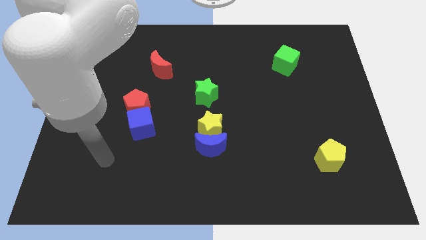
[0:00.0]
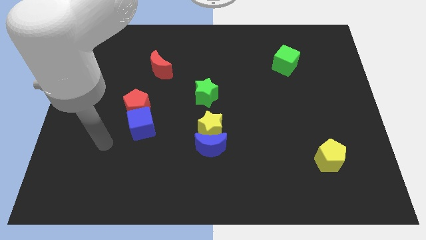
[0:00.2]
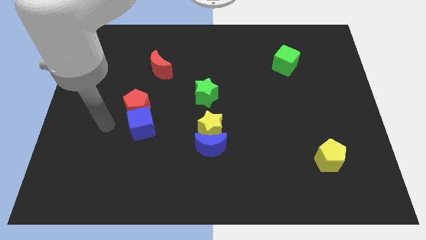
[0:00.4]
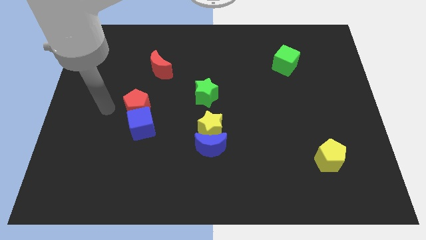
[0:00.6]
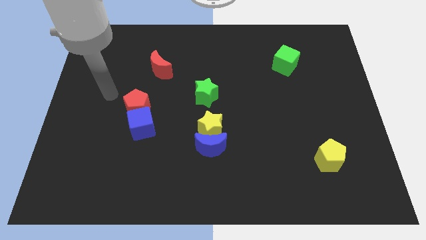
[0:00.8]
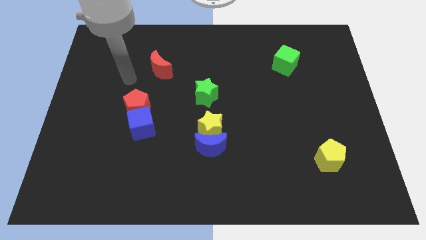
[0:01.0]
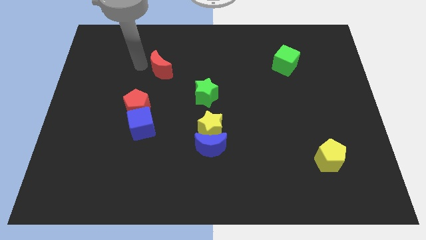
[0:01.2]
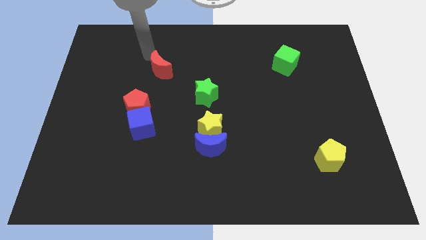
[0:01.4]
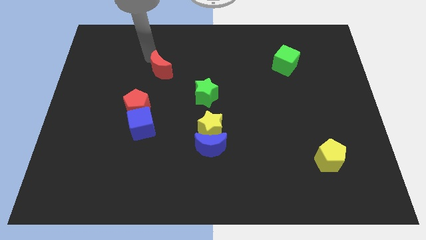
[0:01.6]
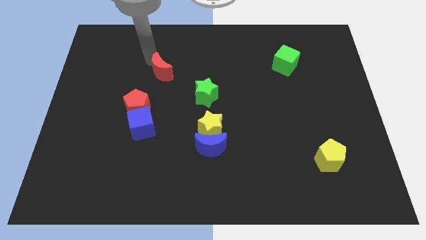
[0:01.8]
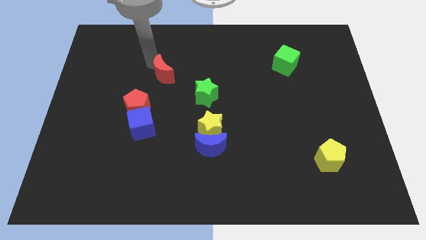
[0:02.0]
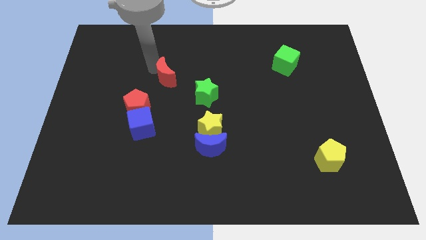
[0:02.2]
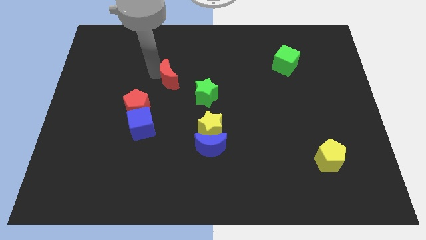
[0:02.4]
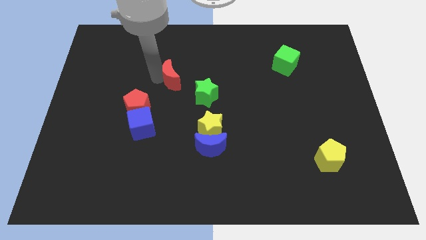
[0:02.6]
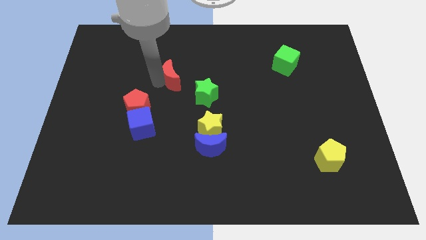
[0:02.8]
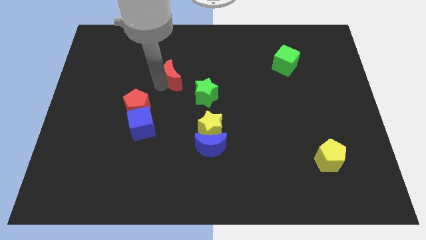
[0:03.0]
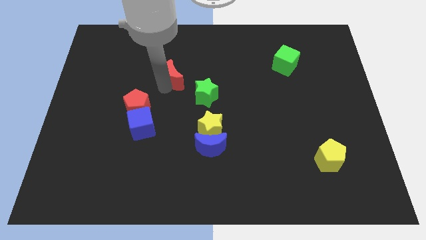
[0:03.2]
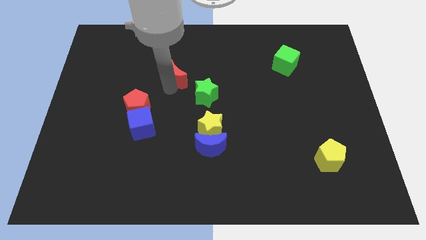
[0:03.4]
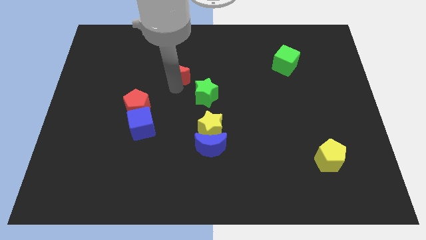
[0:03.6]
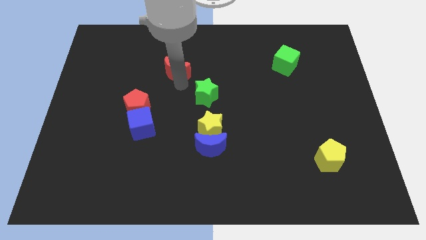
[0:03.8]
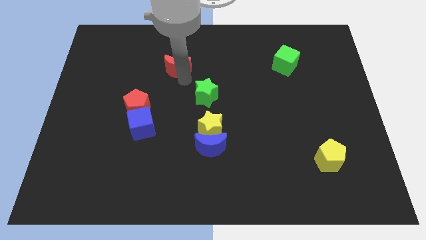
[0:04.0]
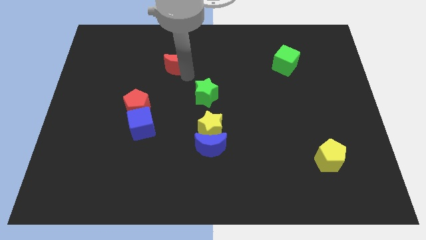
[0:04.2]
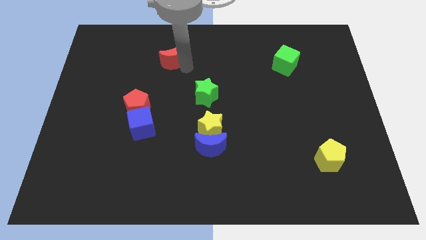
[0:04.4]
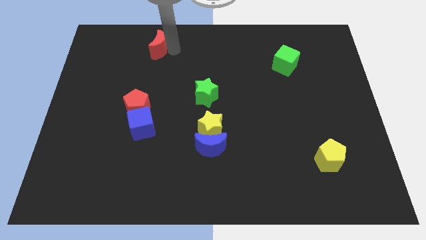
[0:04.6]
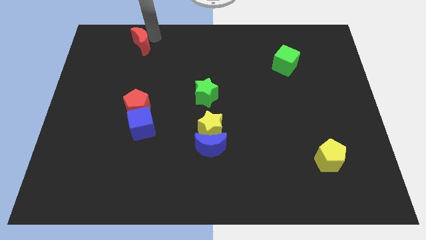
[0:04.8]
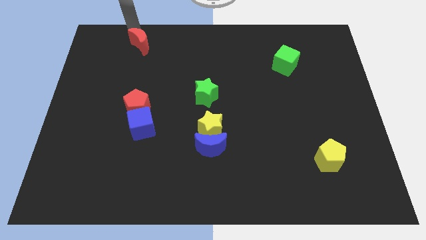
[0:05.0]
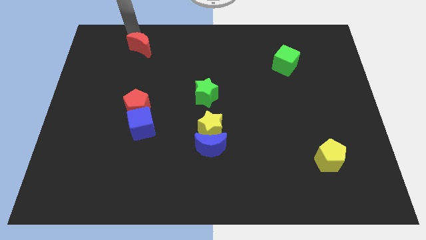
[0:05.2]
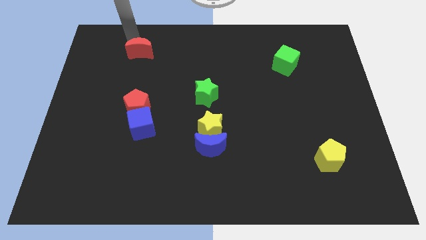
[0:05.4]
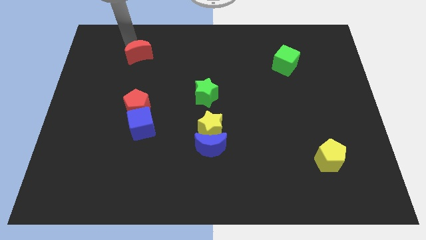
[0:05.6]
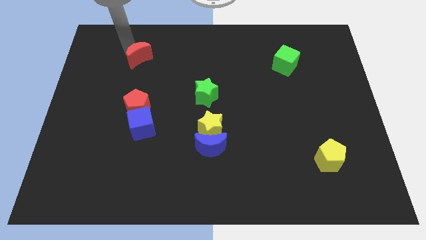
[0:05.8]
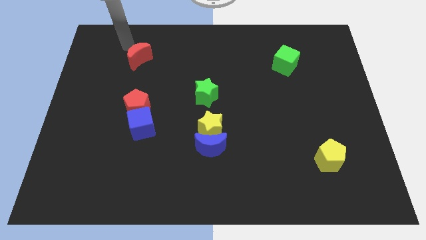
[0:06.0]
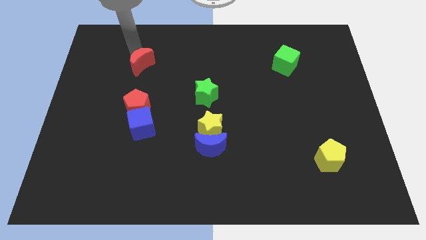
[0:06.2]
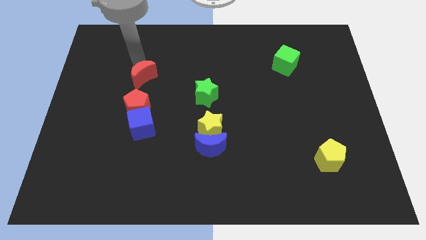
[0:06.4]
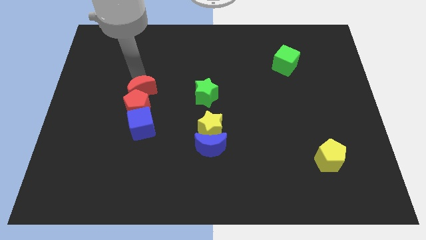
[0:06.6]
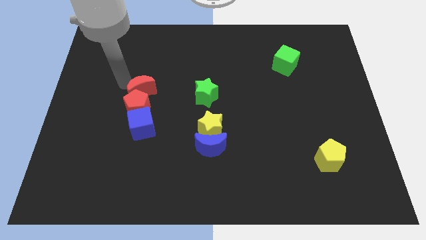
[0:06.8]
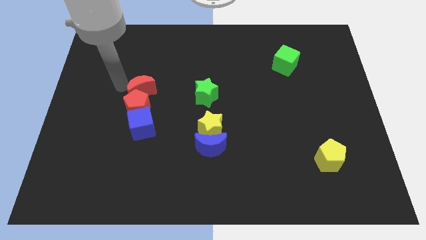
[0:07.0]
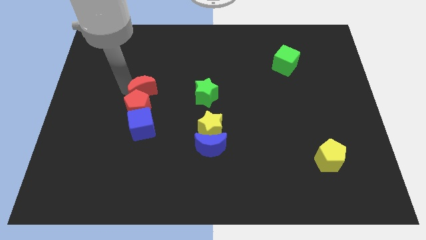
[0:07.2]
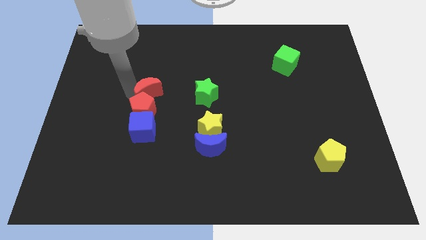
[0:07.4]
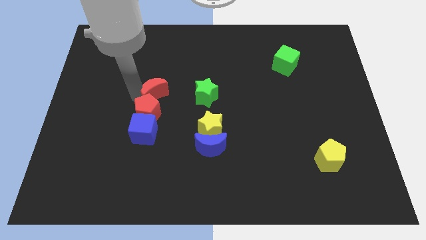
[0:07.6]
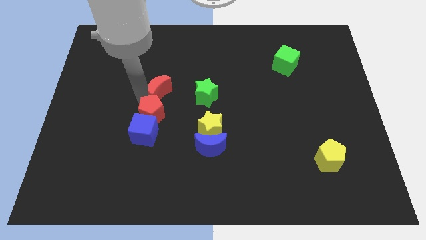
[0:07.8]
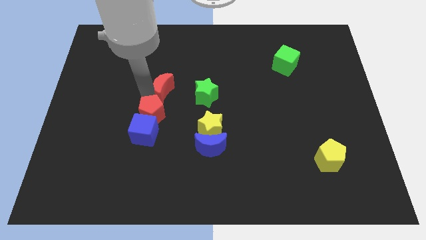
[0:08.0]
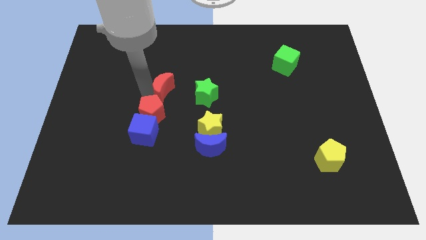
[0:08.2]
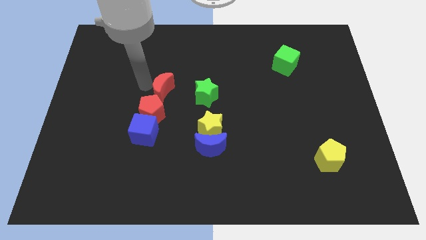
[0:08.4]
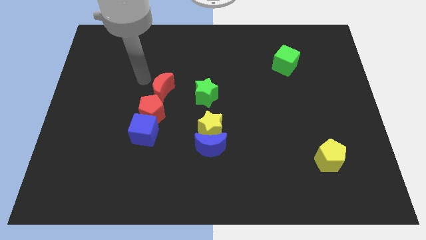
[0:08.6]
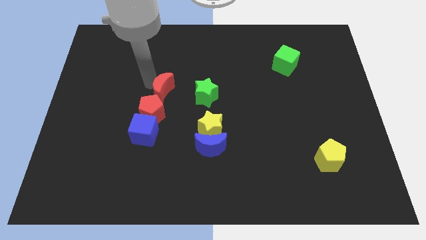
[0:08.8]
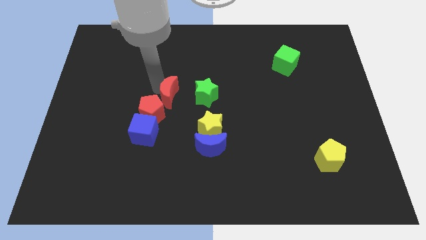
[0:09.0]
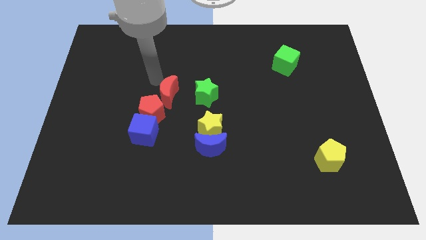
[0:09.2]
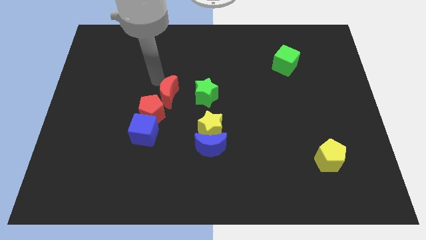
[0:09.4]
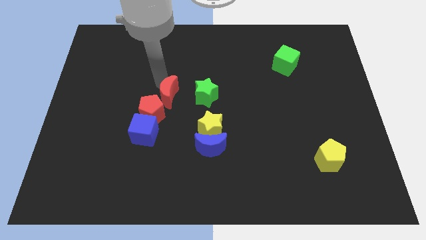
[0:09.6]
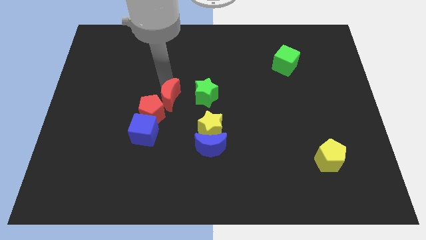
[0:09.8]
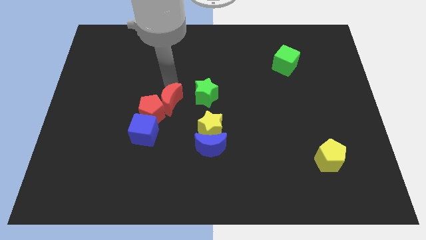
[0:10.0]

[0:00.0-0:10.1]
slide the red moon diagonally down and to the left of the green star

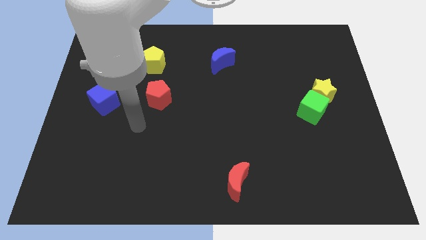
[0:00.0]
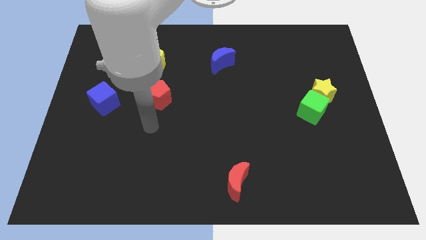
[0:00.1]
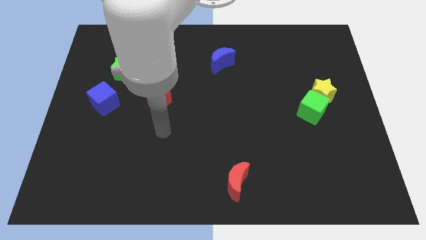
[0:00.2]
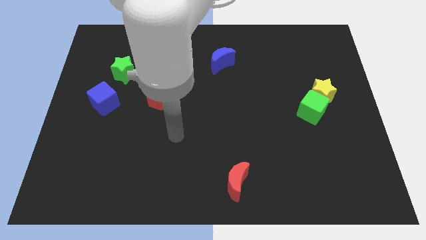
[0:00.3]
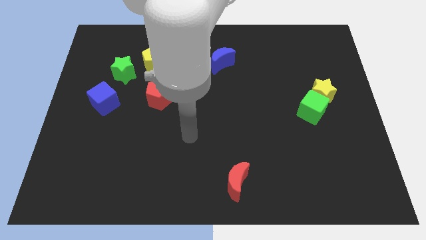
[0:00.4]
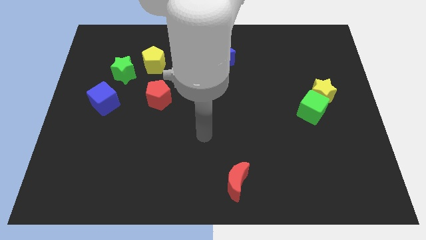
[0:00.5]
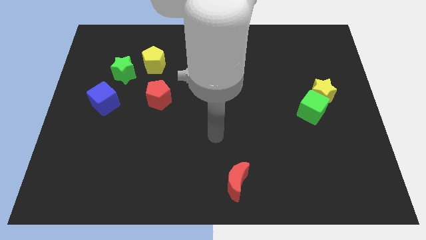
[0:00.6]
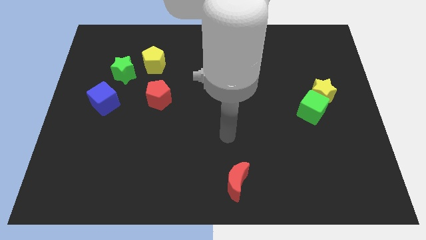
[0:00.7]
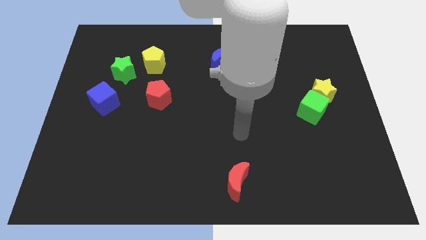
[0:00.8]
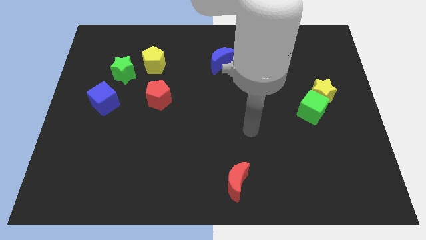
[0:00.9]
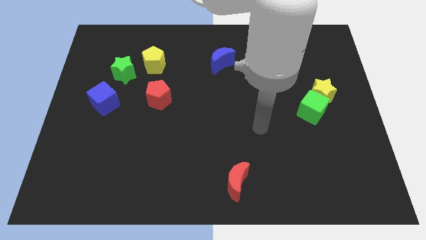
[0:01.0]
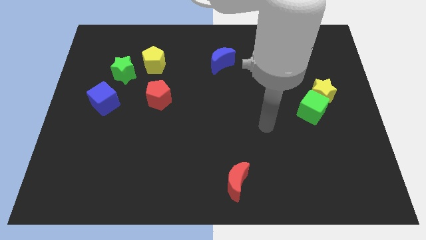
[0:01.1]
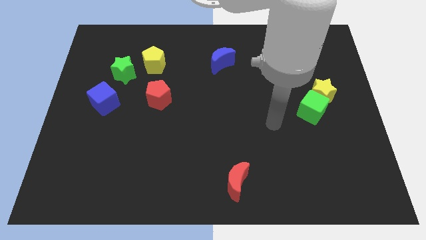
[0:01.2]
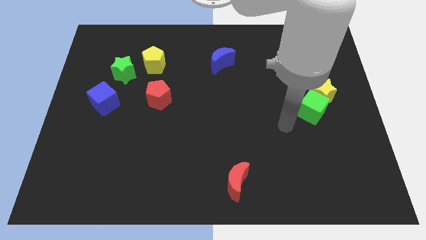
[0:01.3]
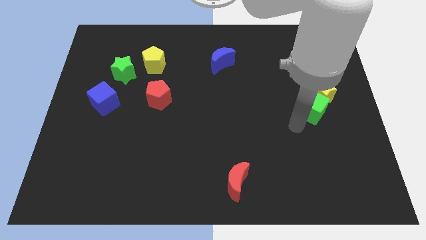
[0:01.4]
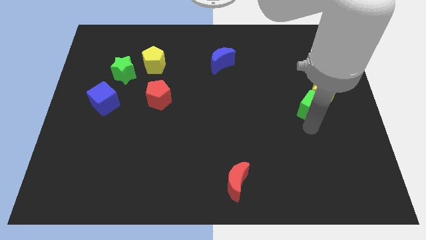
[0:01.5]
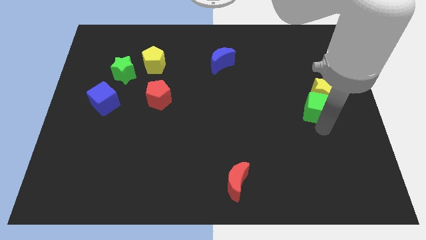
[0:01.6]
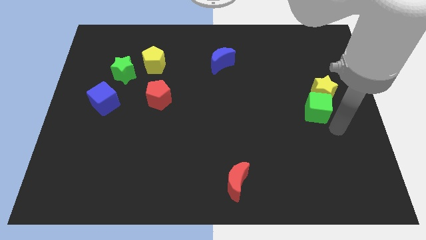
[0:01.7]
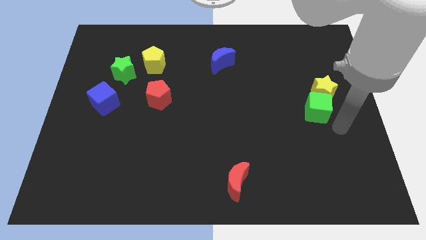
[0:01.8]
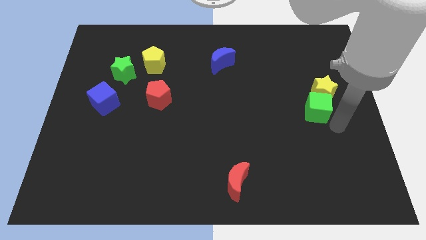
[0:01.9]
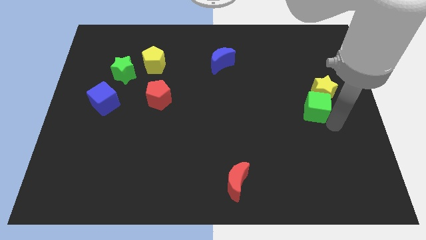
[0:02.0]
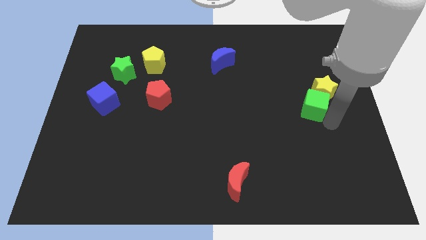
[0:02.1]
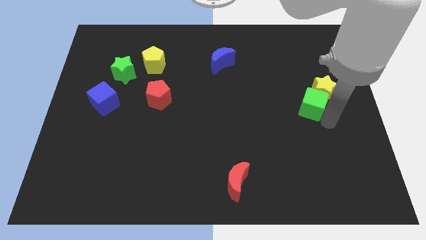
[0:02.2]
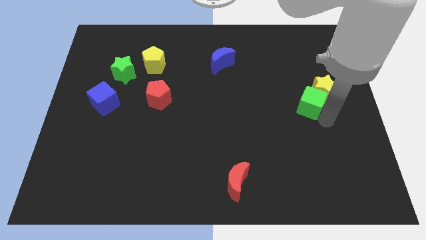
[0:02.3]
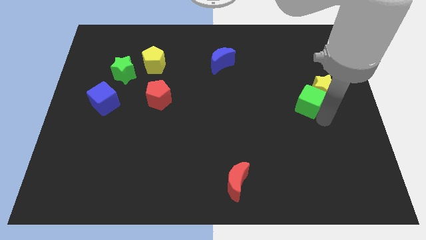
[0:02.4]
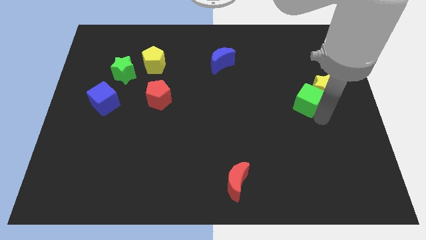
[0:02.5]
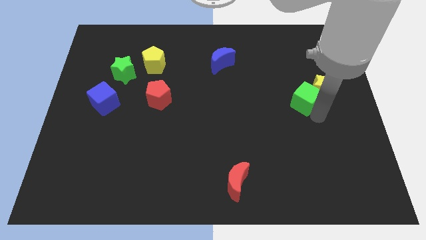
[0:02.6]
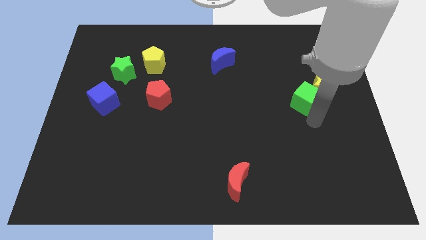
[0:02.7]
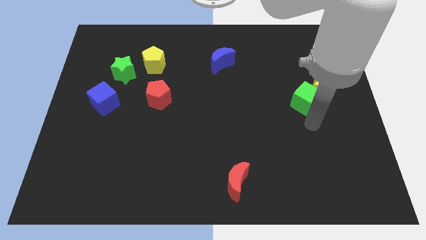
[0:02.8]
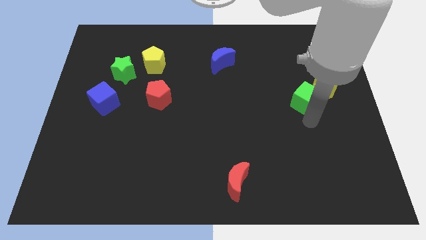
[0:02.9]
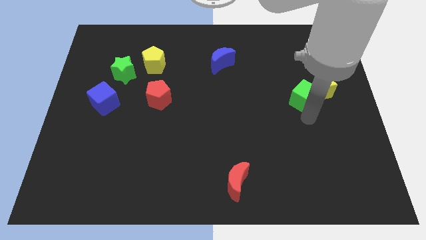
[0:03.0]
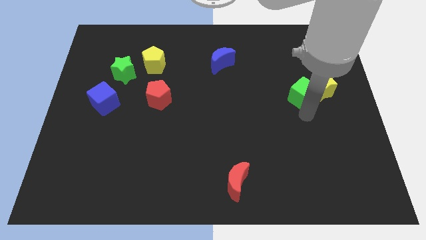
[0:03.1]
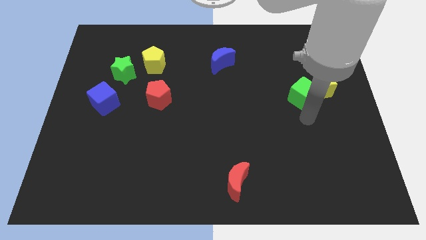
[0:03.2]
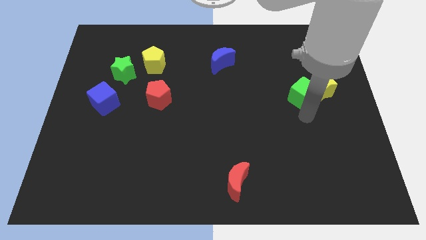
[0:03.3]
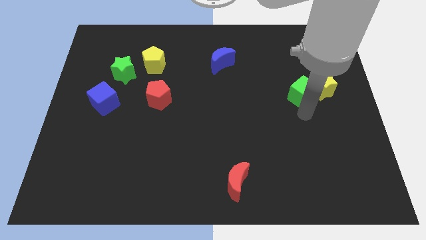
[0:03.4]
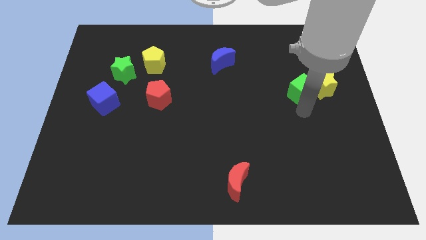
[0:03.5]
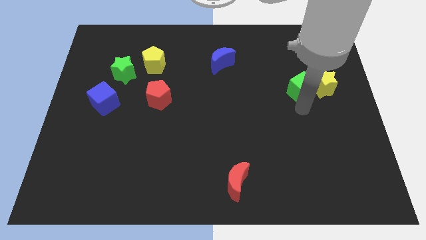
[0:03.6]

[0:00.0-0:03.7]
slide the green cube to the top left side of the yellow star
